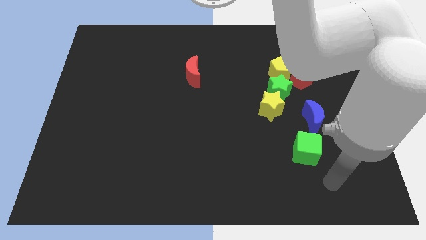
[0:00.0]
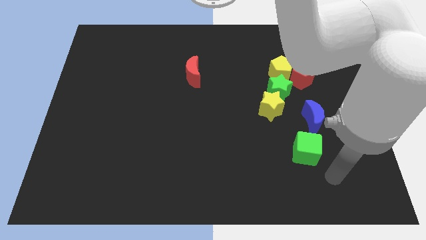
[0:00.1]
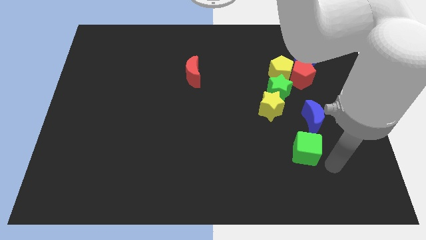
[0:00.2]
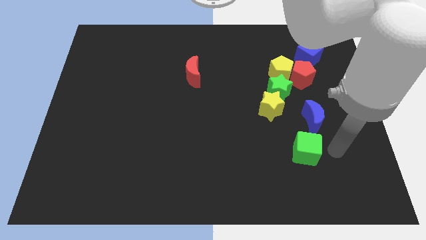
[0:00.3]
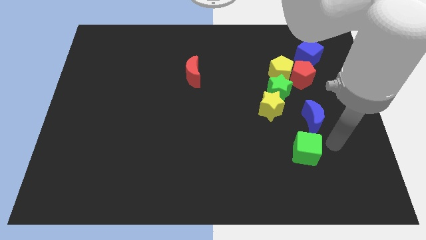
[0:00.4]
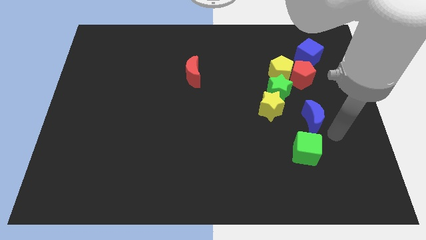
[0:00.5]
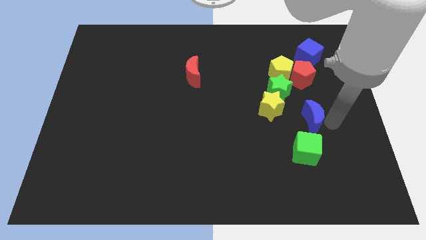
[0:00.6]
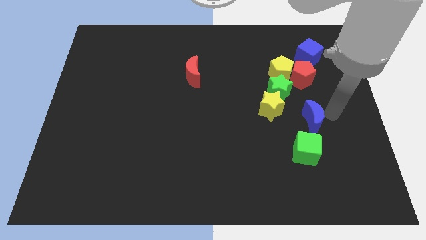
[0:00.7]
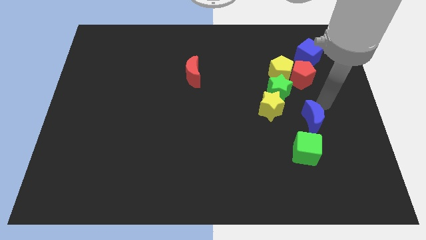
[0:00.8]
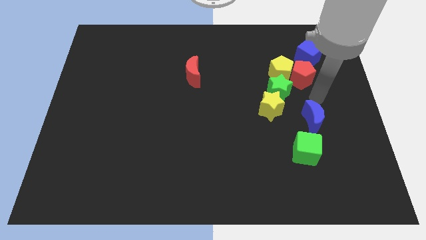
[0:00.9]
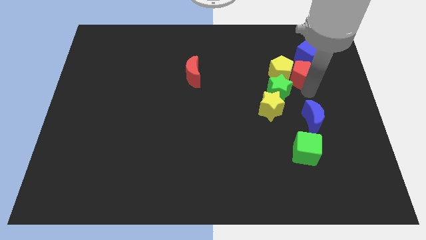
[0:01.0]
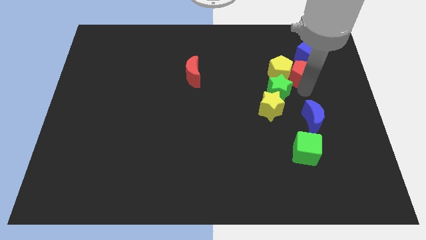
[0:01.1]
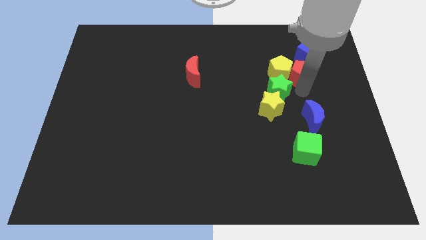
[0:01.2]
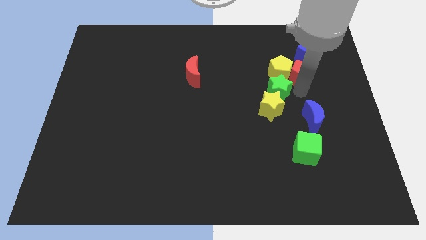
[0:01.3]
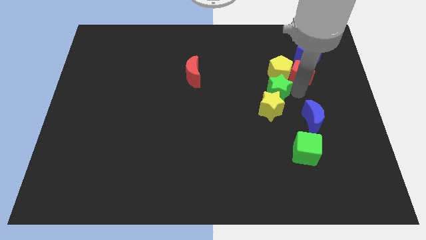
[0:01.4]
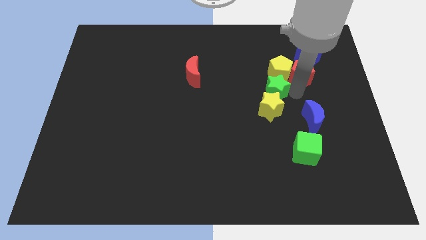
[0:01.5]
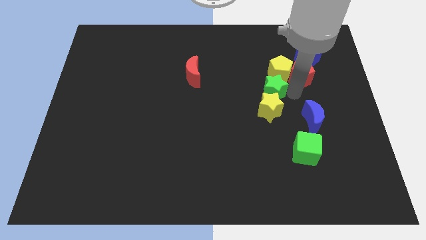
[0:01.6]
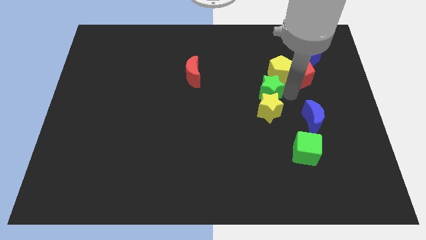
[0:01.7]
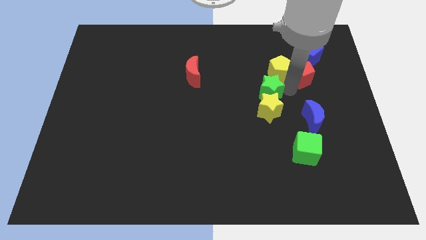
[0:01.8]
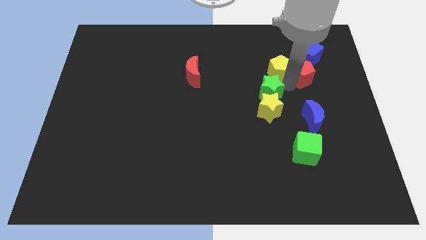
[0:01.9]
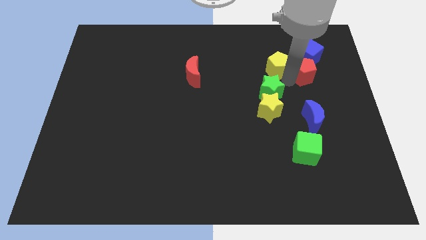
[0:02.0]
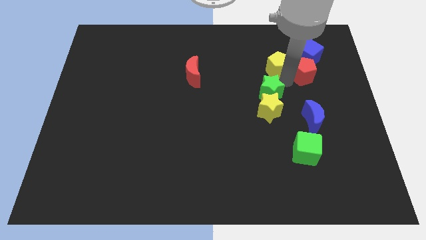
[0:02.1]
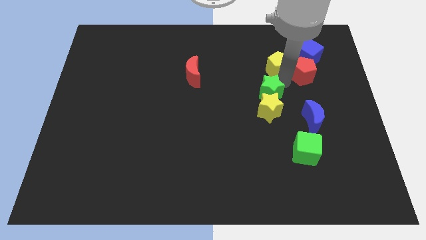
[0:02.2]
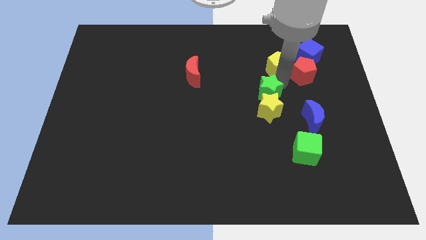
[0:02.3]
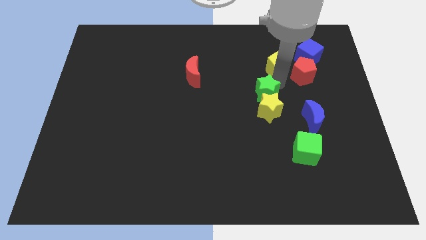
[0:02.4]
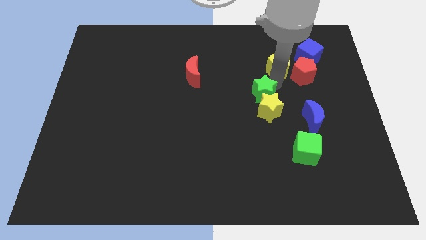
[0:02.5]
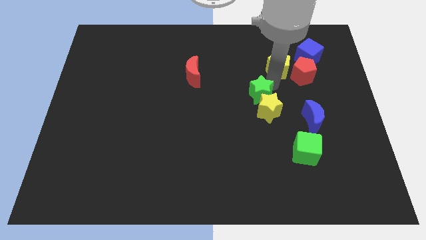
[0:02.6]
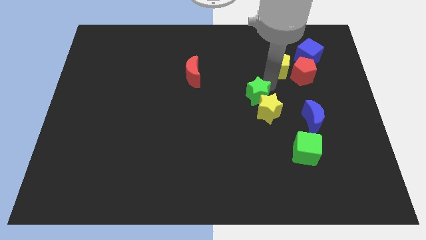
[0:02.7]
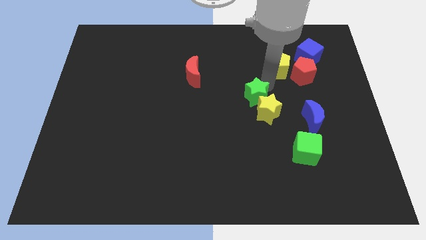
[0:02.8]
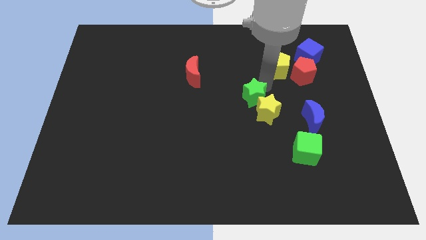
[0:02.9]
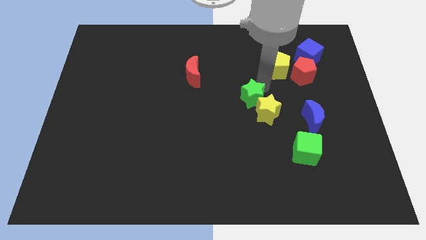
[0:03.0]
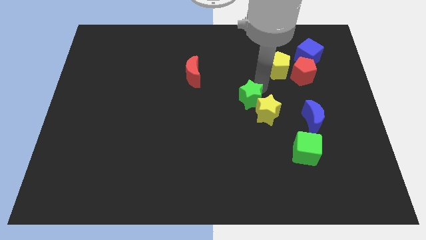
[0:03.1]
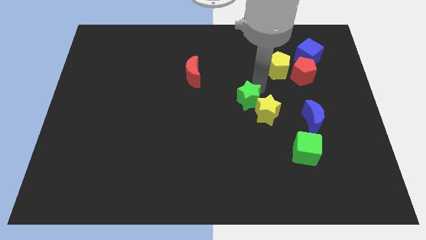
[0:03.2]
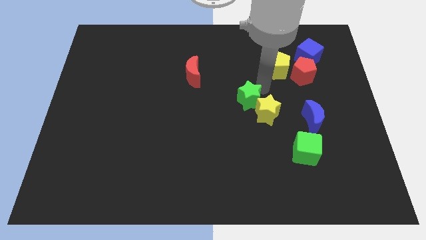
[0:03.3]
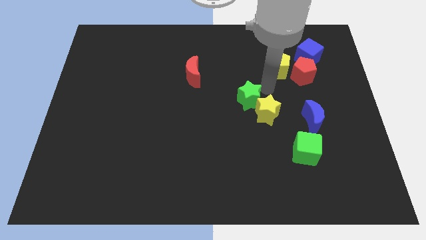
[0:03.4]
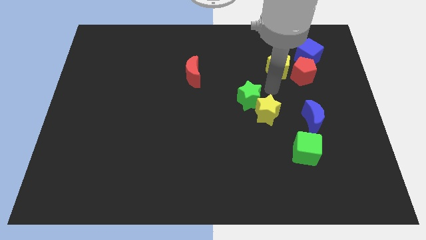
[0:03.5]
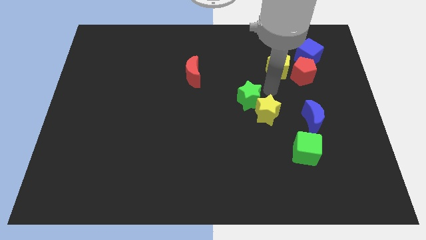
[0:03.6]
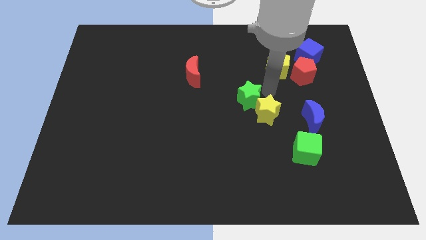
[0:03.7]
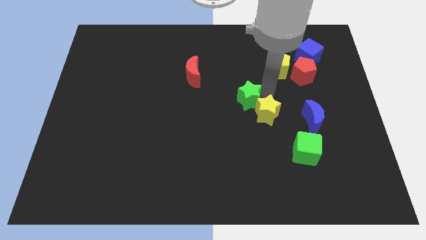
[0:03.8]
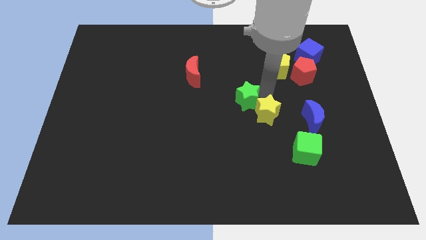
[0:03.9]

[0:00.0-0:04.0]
separate the green star from the clump

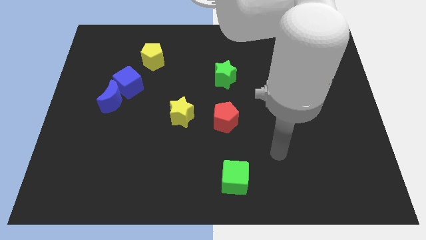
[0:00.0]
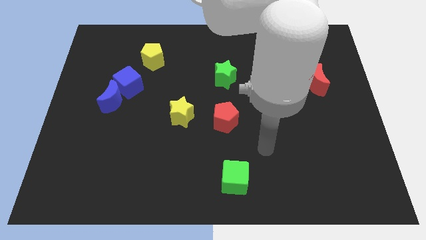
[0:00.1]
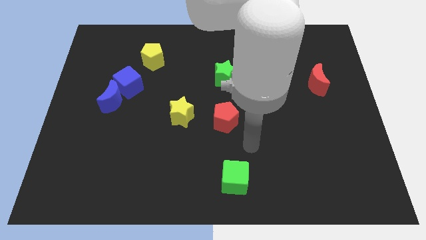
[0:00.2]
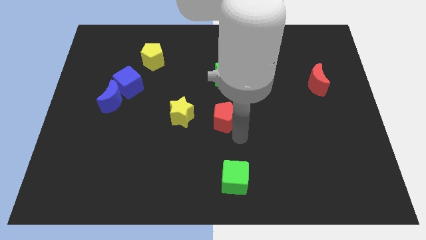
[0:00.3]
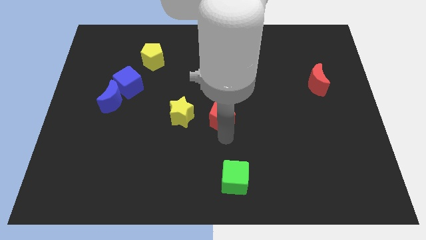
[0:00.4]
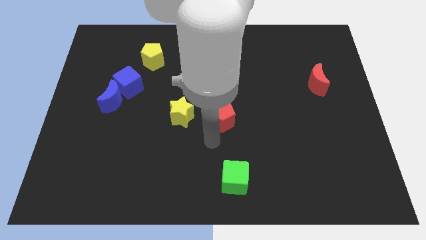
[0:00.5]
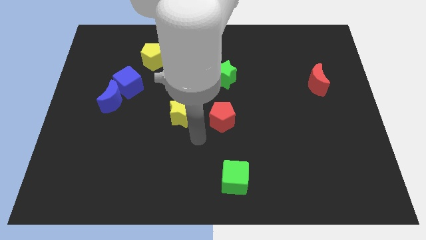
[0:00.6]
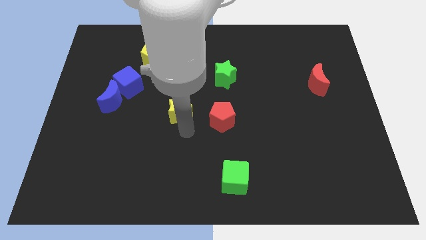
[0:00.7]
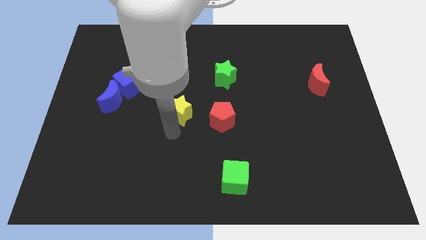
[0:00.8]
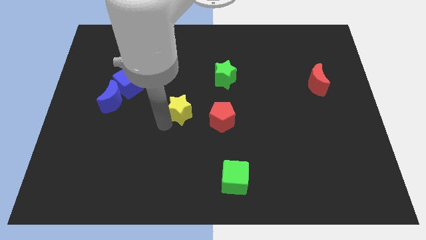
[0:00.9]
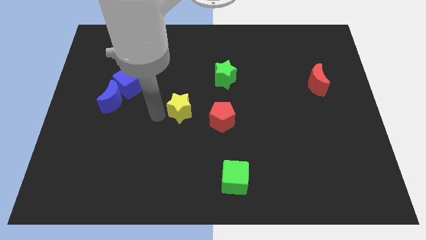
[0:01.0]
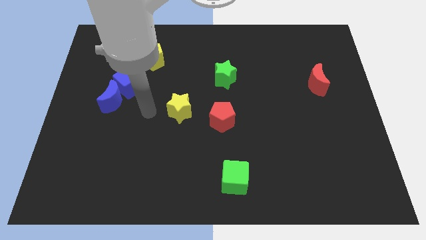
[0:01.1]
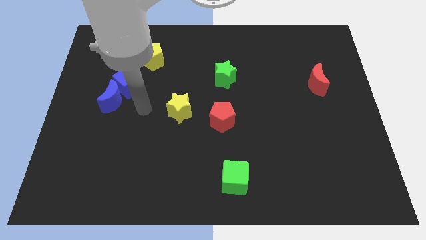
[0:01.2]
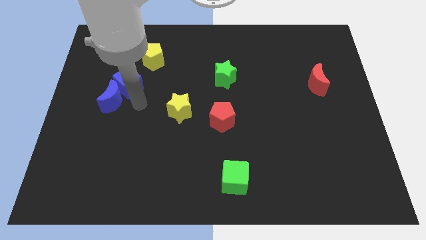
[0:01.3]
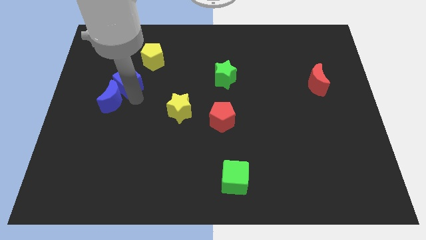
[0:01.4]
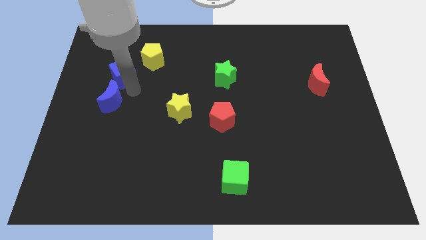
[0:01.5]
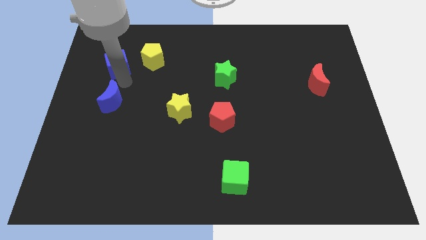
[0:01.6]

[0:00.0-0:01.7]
move the blue moon away from the blue cube

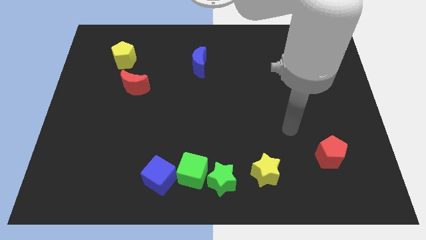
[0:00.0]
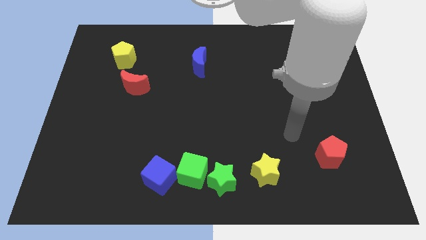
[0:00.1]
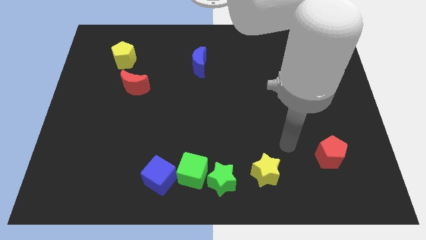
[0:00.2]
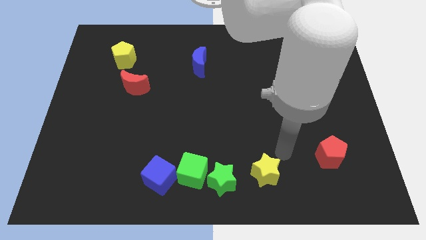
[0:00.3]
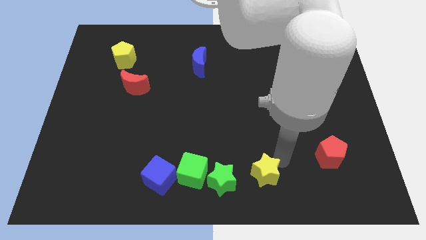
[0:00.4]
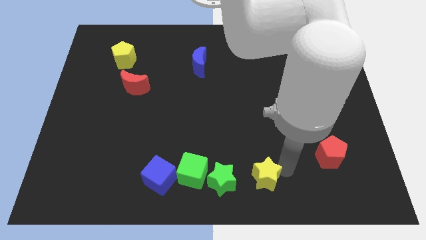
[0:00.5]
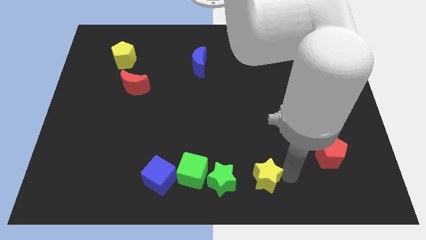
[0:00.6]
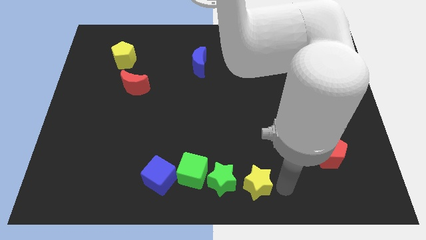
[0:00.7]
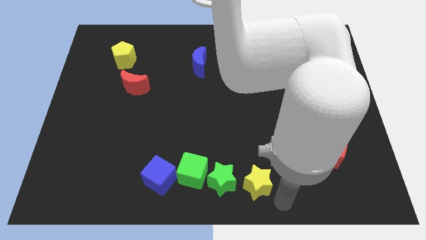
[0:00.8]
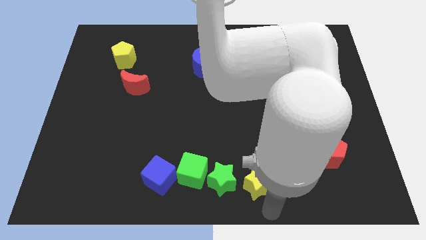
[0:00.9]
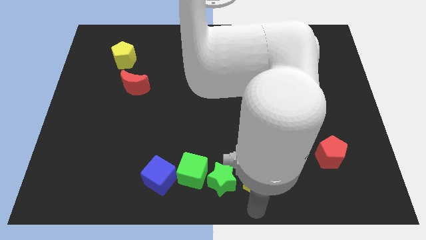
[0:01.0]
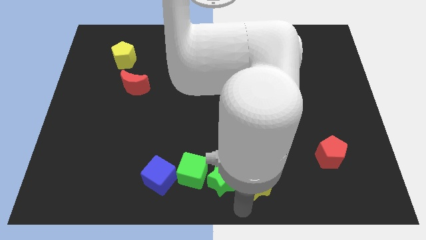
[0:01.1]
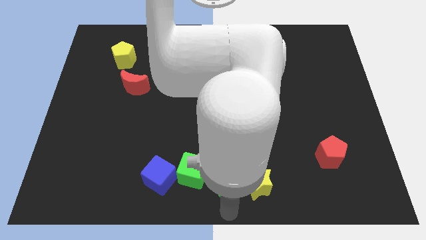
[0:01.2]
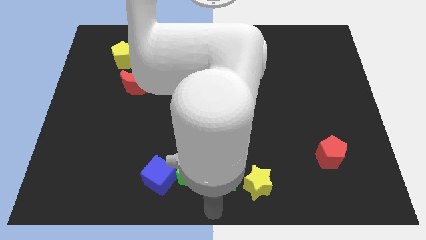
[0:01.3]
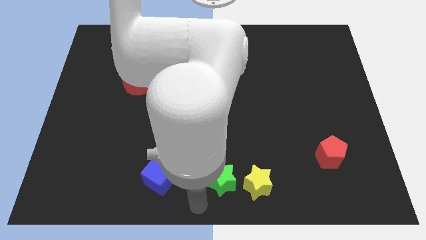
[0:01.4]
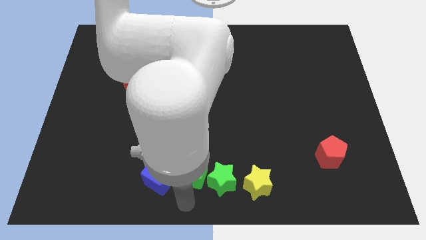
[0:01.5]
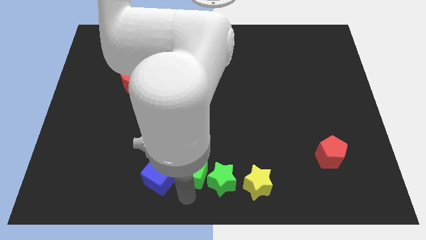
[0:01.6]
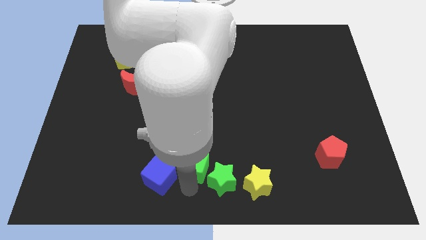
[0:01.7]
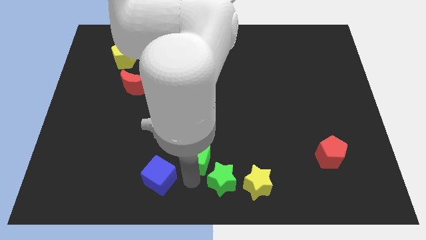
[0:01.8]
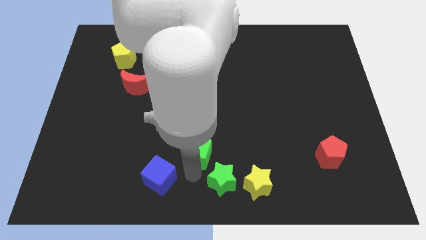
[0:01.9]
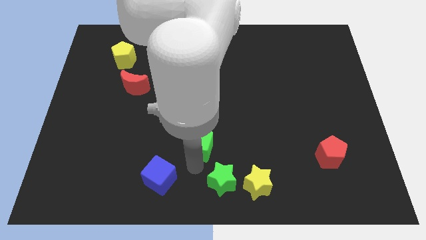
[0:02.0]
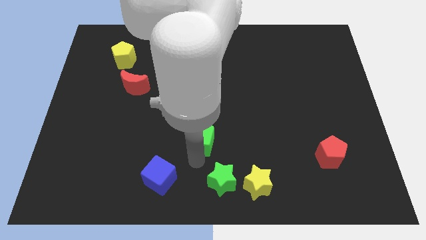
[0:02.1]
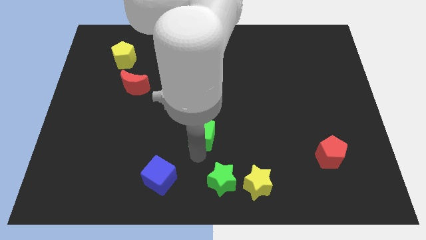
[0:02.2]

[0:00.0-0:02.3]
move the green cube away from the green star and blue cube

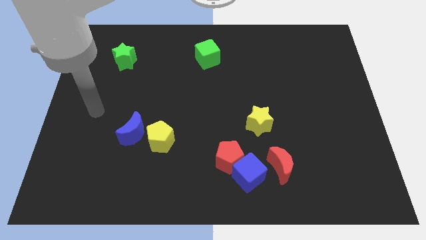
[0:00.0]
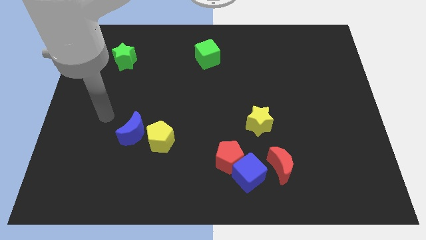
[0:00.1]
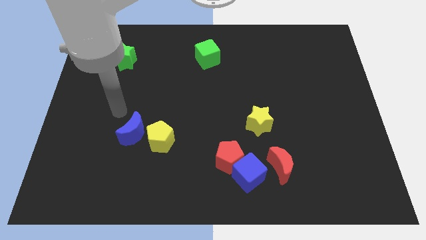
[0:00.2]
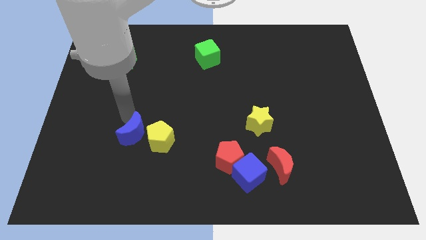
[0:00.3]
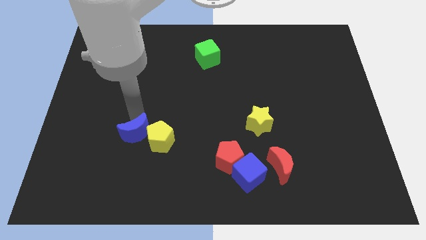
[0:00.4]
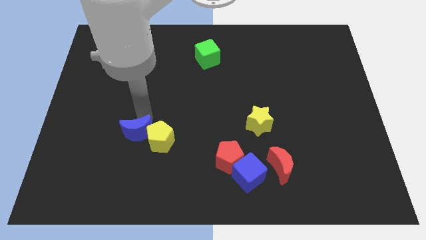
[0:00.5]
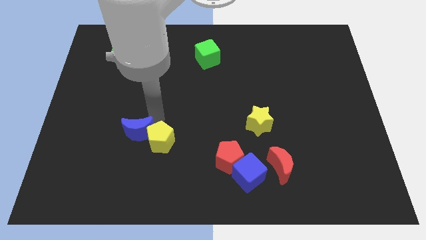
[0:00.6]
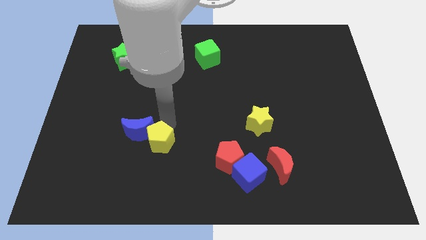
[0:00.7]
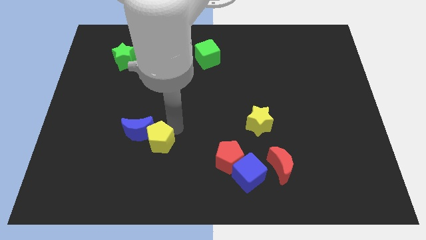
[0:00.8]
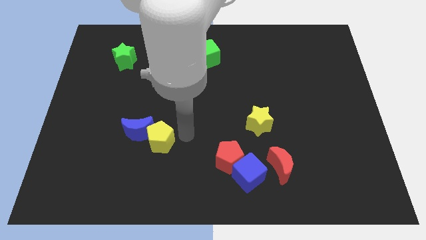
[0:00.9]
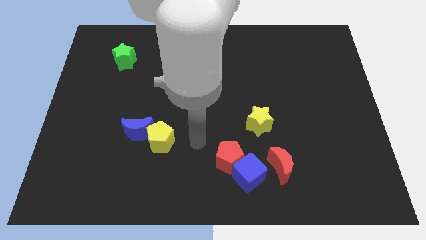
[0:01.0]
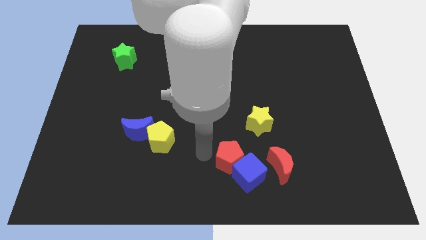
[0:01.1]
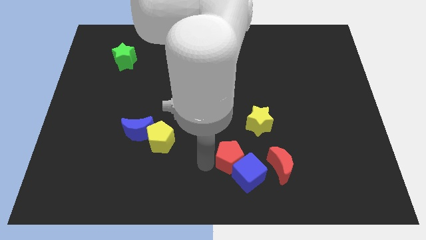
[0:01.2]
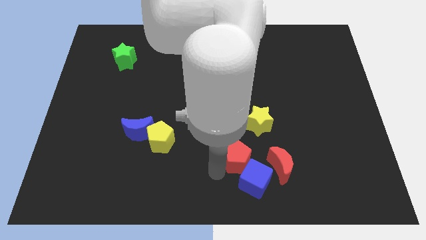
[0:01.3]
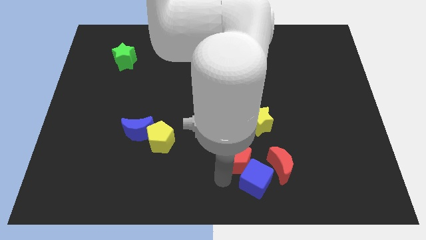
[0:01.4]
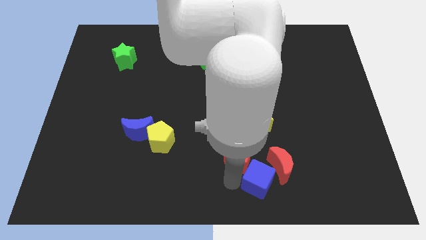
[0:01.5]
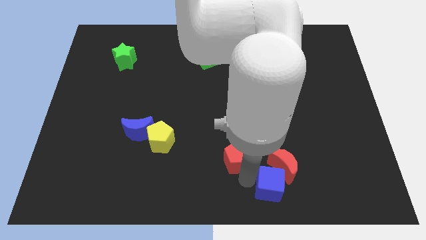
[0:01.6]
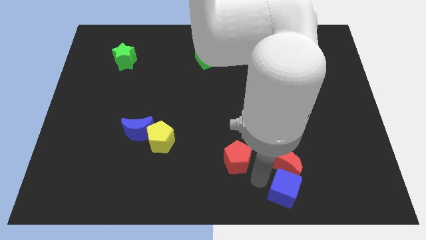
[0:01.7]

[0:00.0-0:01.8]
pull the red pentagon apart from the blue cube
